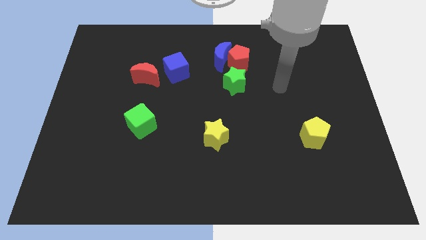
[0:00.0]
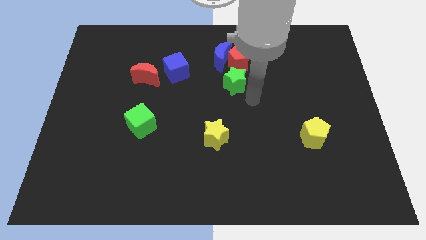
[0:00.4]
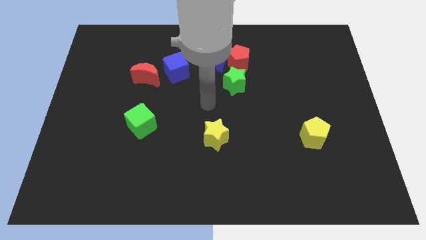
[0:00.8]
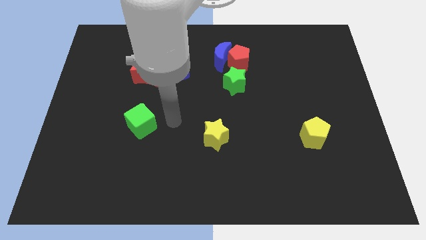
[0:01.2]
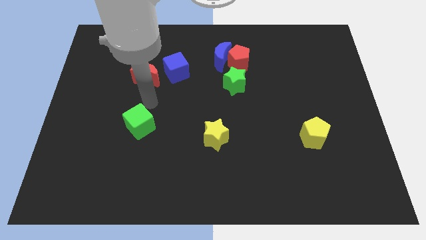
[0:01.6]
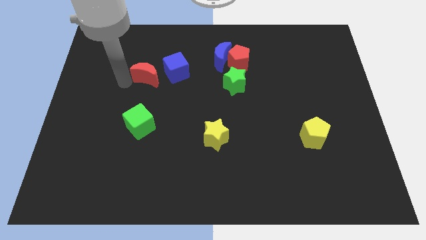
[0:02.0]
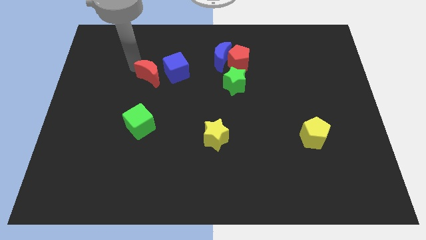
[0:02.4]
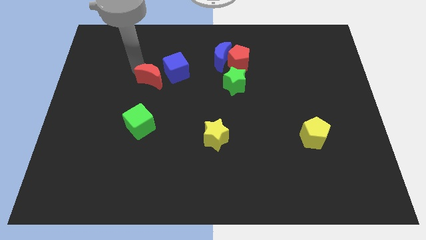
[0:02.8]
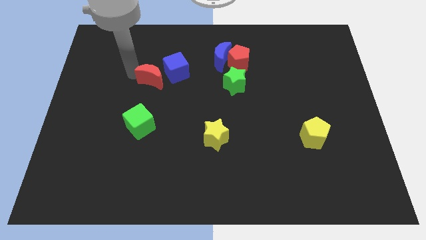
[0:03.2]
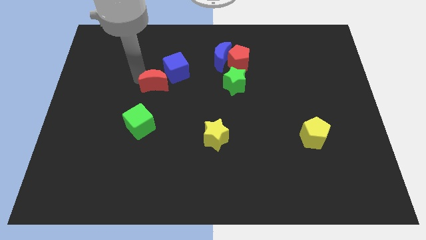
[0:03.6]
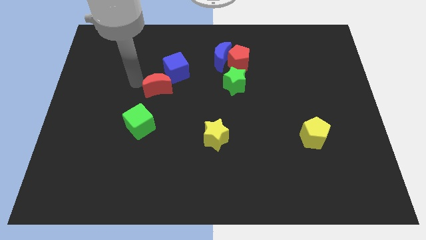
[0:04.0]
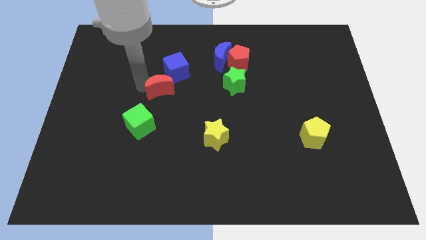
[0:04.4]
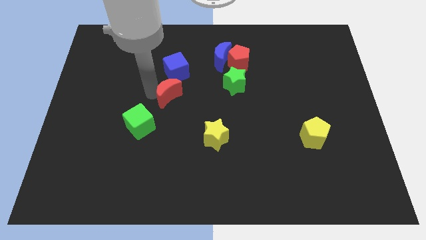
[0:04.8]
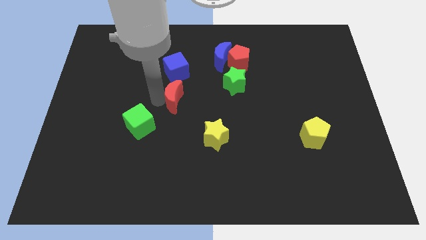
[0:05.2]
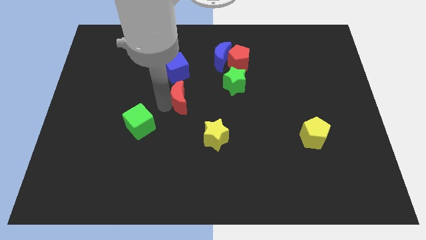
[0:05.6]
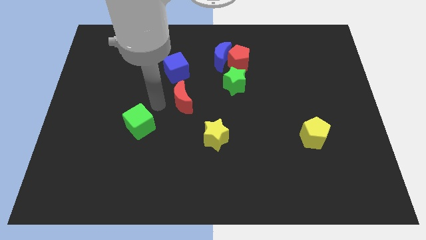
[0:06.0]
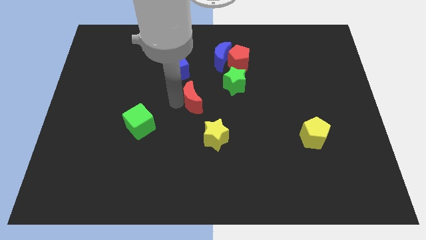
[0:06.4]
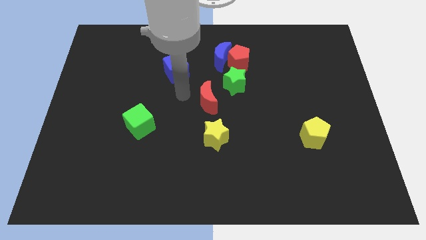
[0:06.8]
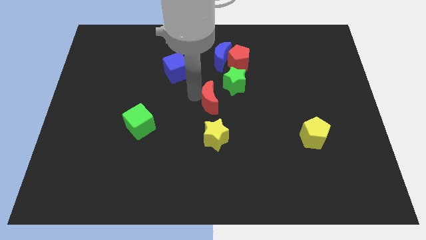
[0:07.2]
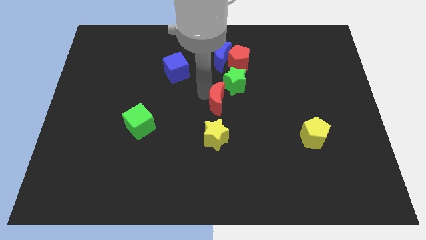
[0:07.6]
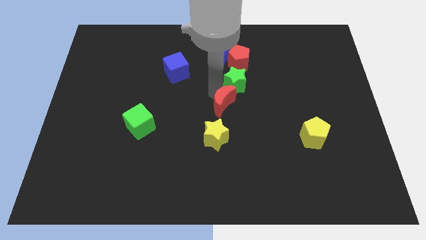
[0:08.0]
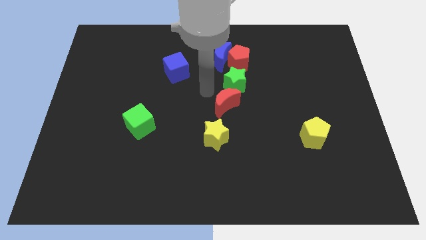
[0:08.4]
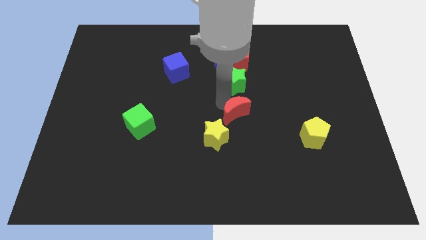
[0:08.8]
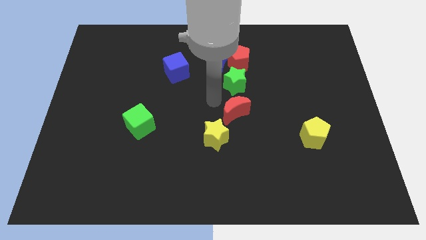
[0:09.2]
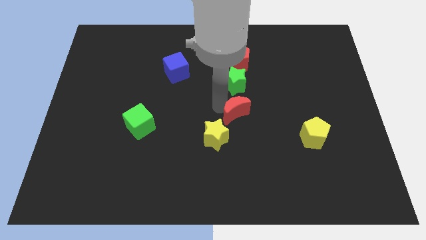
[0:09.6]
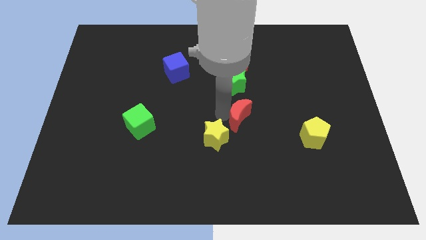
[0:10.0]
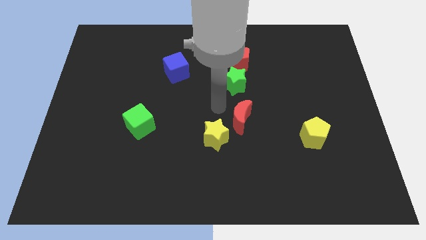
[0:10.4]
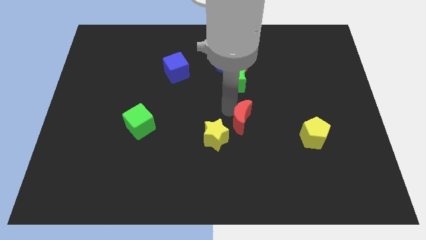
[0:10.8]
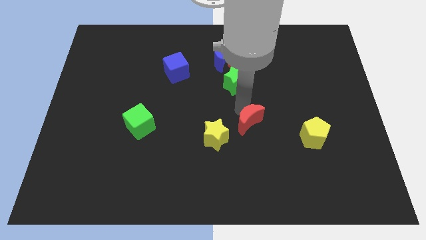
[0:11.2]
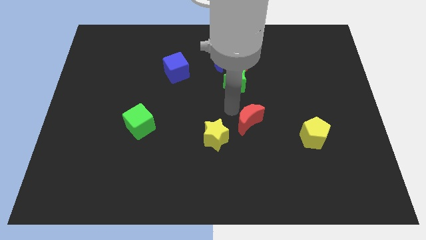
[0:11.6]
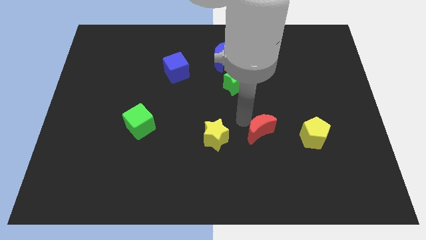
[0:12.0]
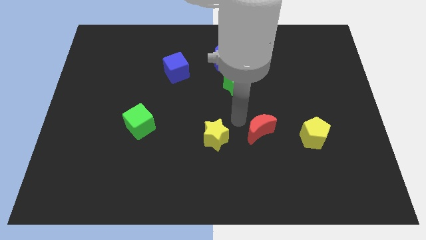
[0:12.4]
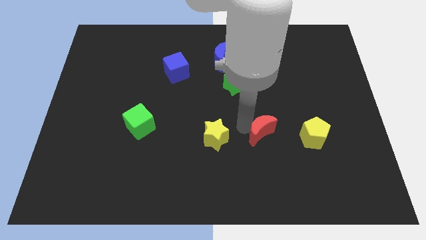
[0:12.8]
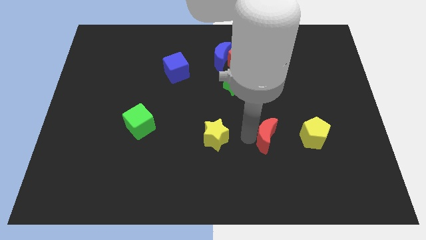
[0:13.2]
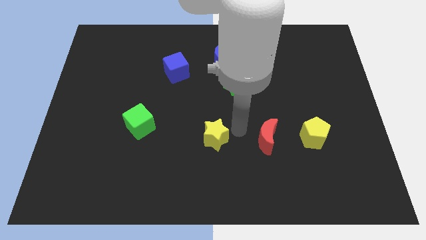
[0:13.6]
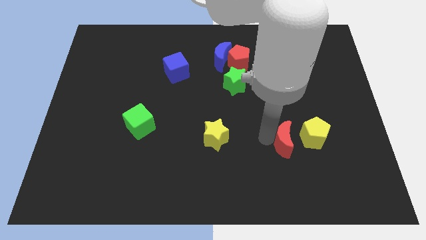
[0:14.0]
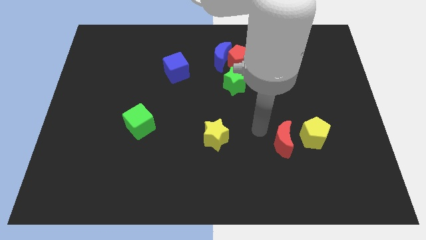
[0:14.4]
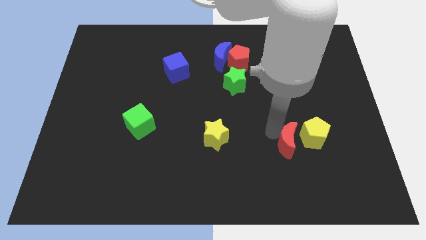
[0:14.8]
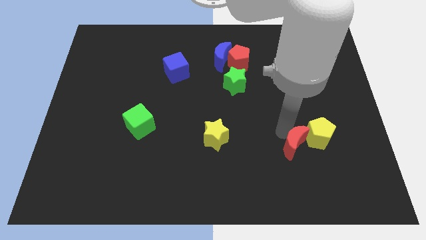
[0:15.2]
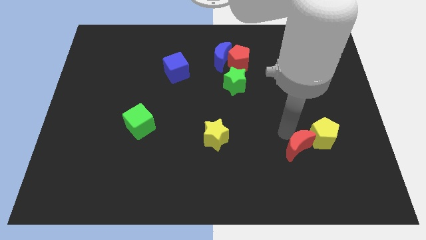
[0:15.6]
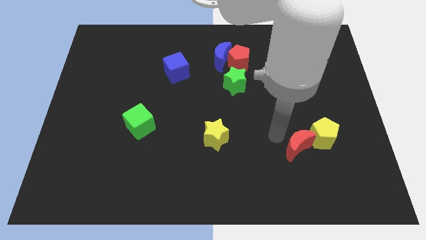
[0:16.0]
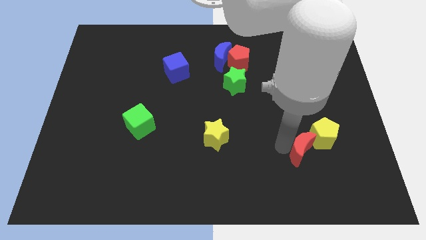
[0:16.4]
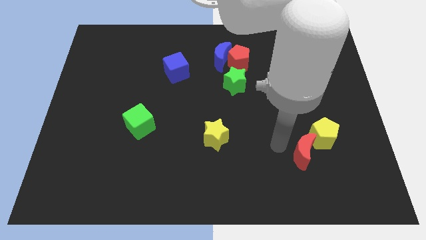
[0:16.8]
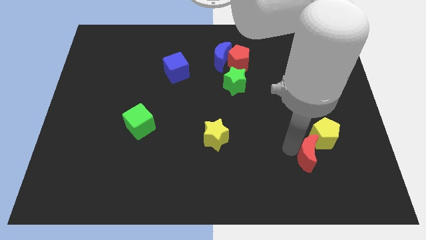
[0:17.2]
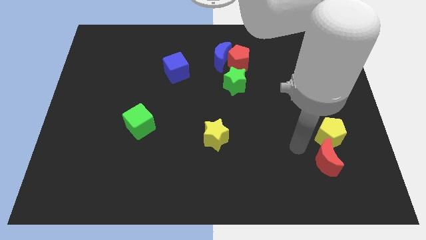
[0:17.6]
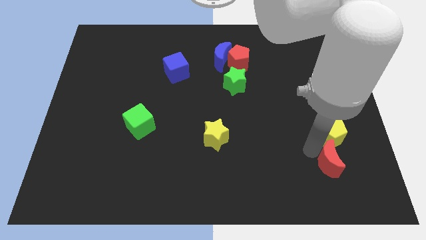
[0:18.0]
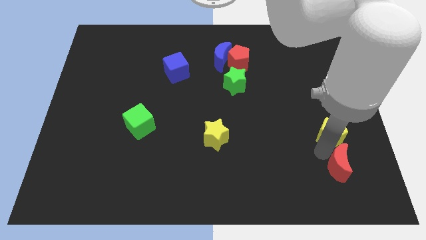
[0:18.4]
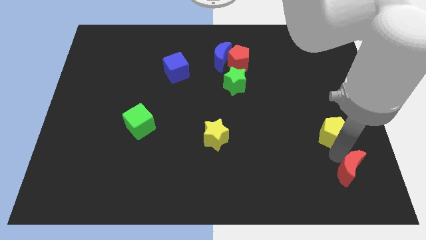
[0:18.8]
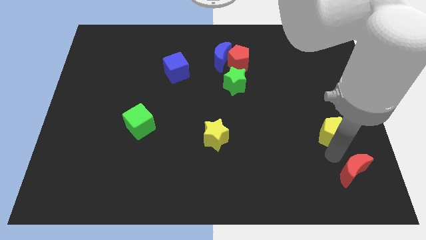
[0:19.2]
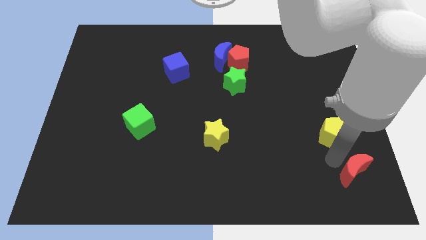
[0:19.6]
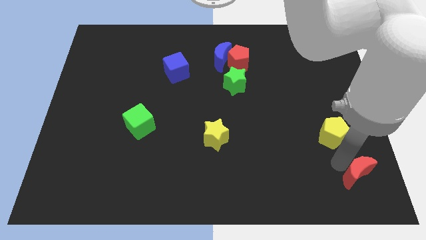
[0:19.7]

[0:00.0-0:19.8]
slide the red moon to the lower right corner
